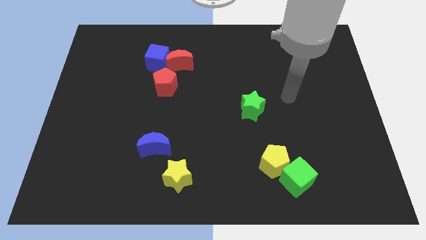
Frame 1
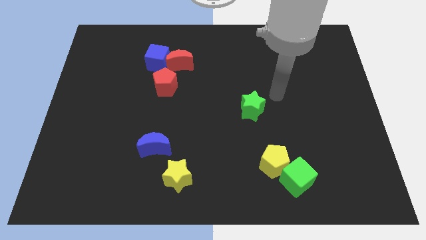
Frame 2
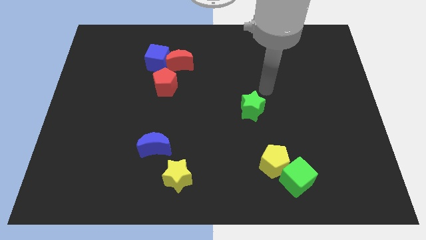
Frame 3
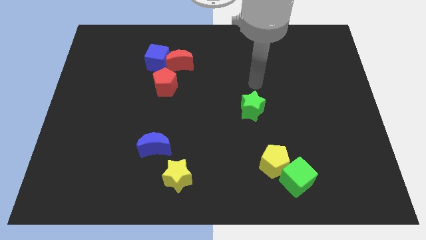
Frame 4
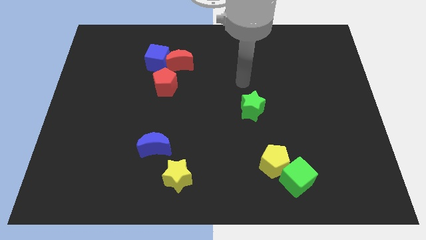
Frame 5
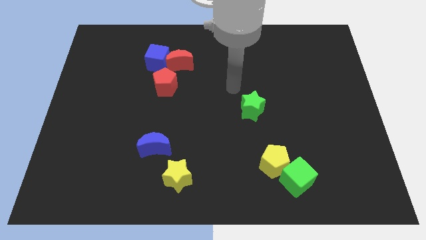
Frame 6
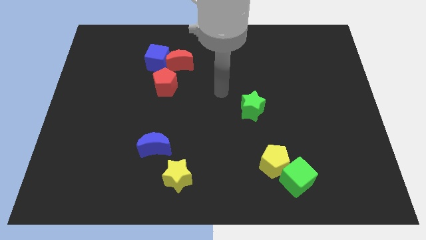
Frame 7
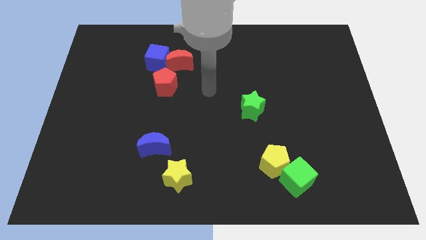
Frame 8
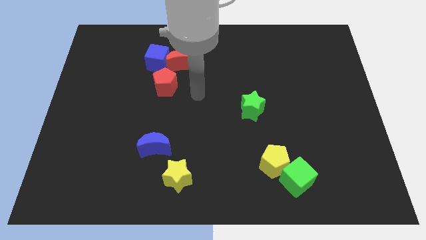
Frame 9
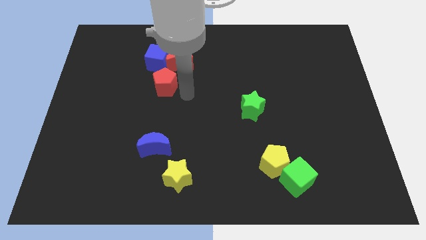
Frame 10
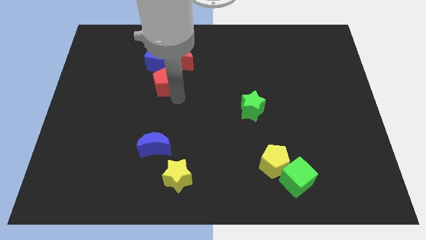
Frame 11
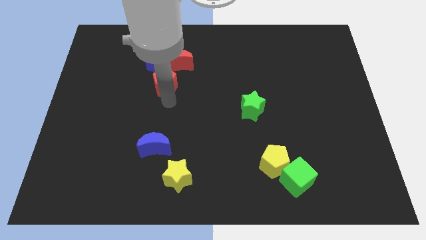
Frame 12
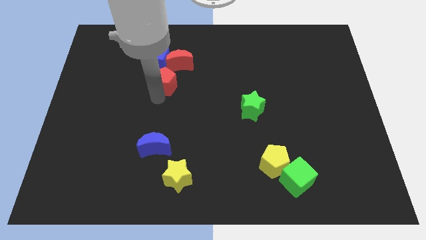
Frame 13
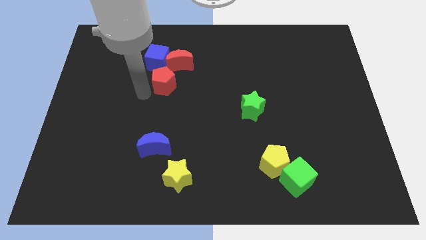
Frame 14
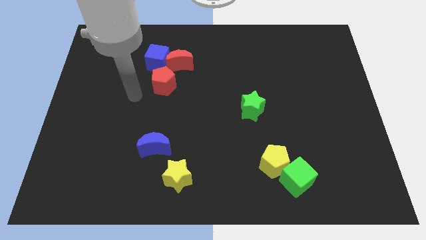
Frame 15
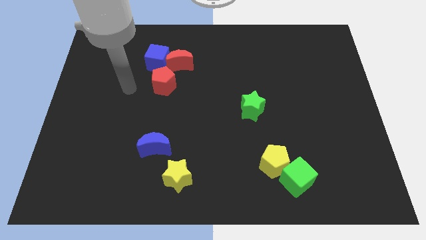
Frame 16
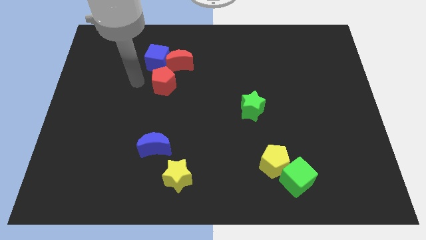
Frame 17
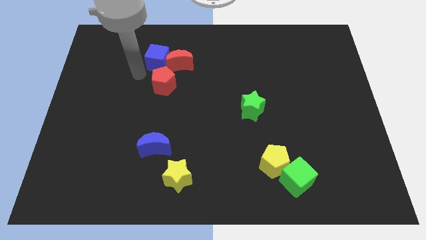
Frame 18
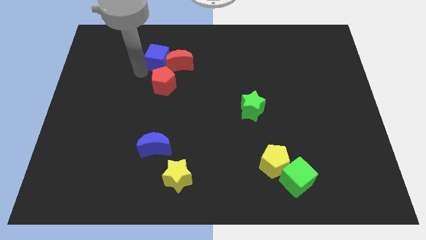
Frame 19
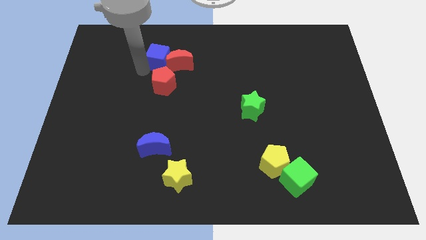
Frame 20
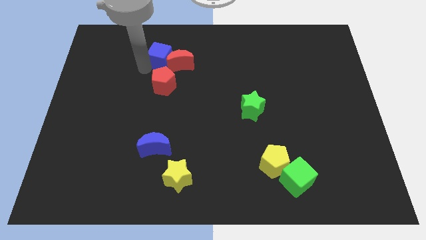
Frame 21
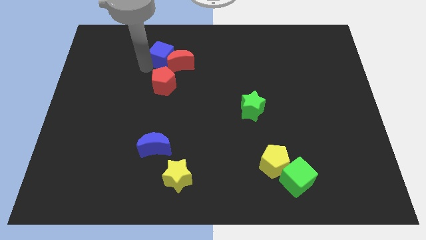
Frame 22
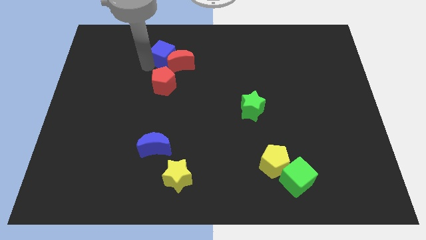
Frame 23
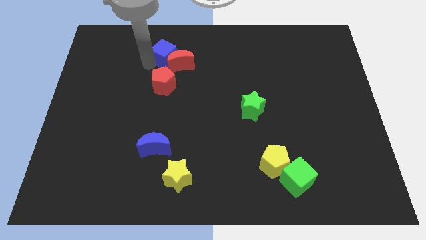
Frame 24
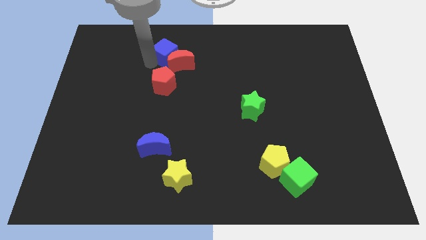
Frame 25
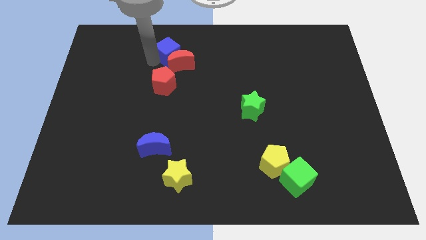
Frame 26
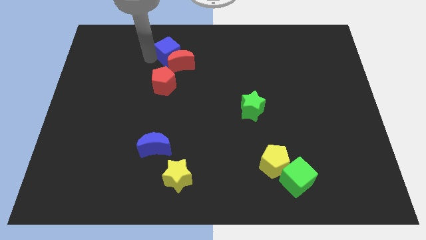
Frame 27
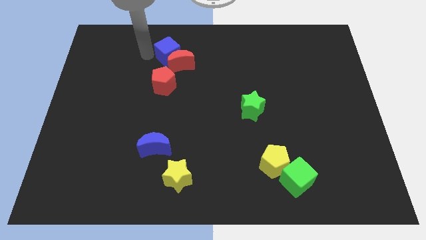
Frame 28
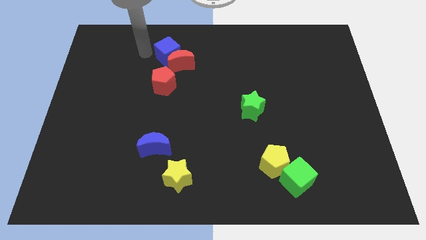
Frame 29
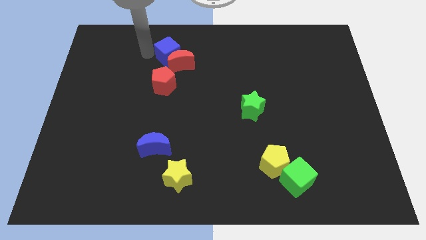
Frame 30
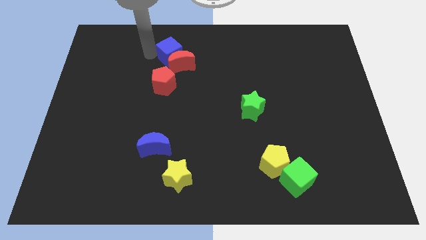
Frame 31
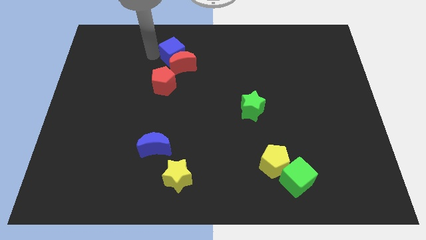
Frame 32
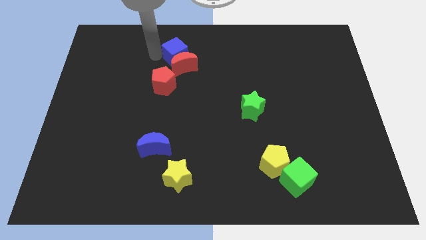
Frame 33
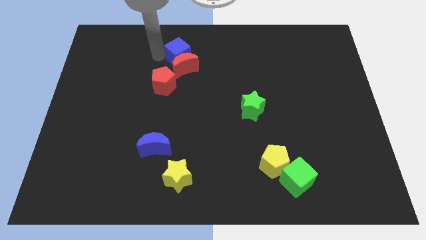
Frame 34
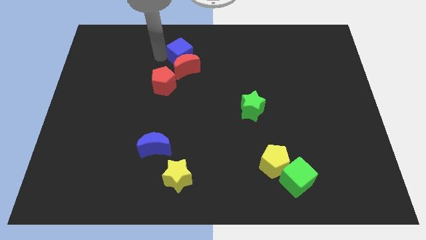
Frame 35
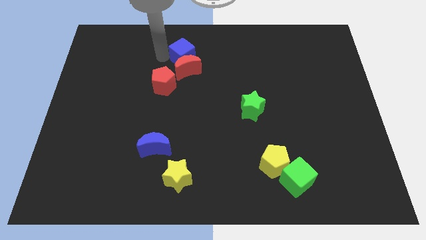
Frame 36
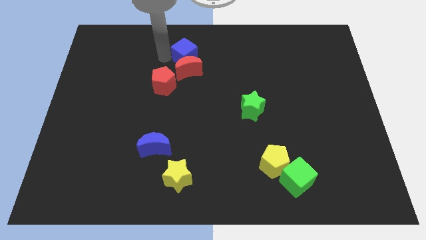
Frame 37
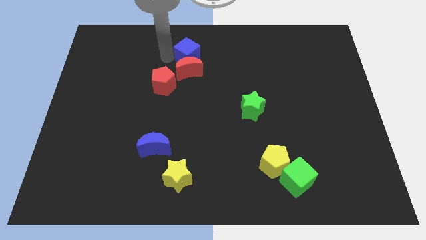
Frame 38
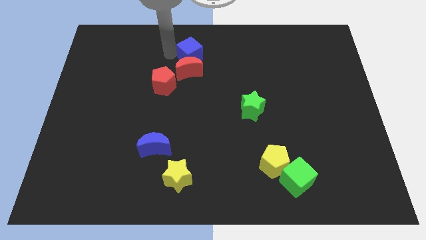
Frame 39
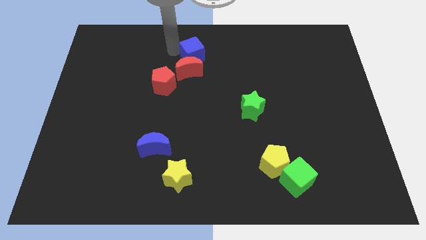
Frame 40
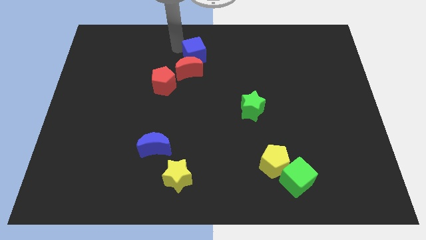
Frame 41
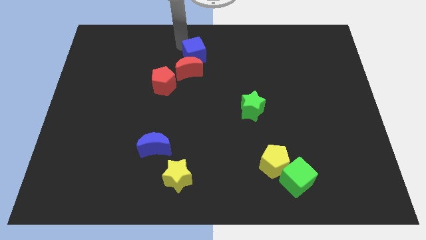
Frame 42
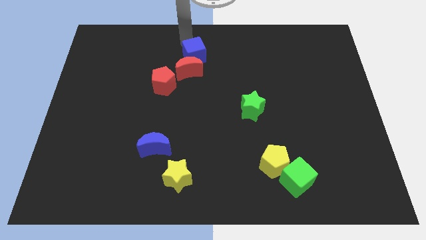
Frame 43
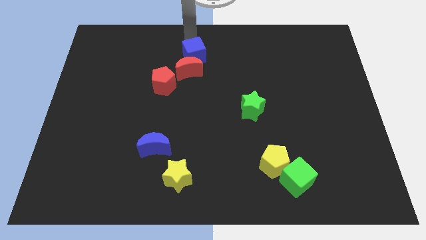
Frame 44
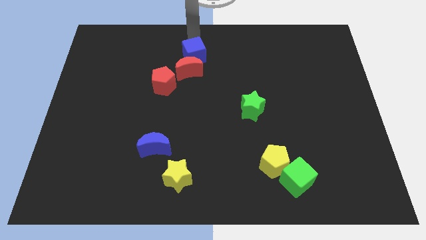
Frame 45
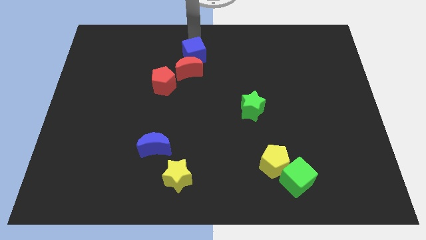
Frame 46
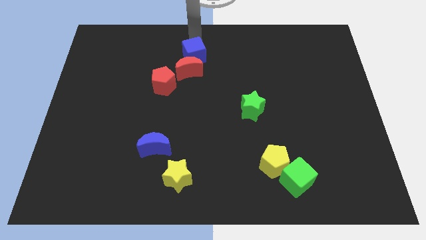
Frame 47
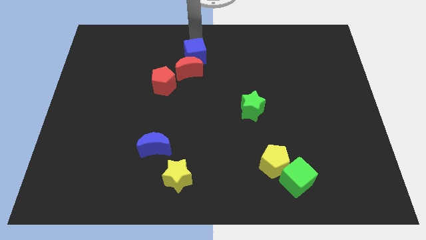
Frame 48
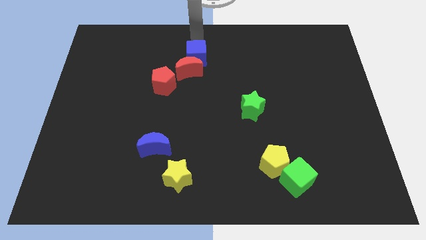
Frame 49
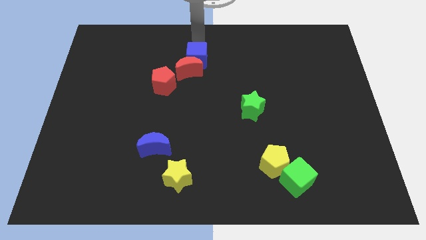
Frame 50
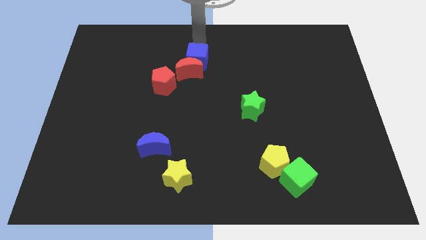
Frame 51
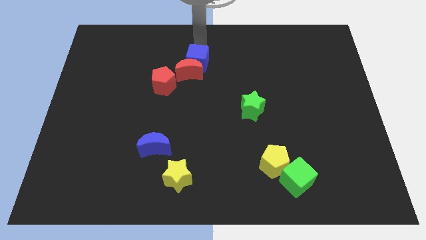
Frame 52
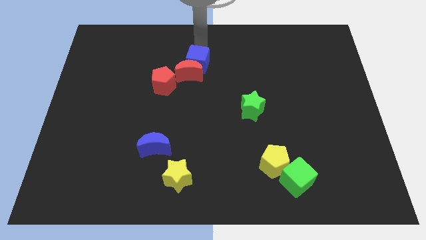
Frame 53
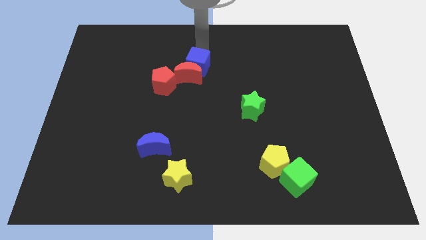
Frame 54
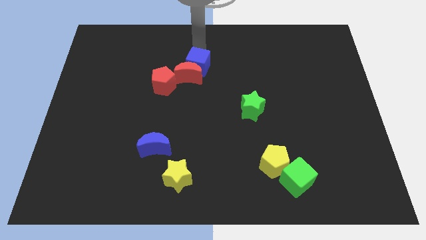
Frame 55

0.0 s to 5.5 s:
push the blue cube downwards and right a bit

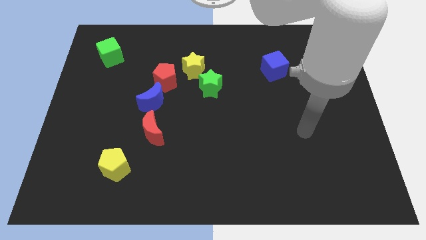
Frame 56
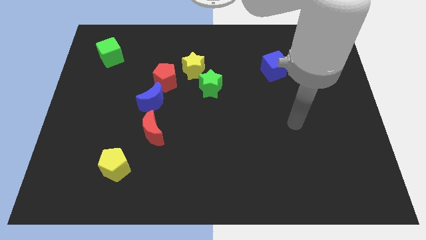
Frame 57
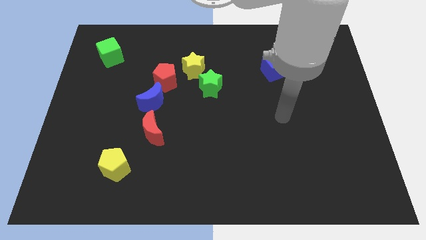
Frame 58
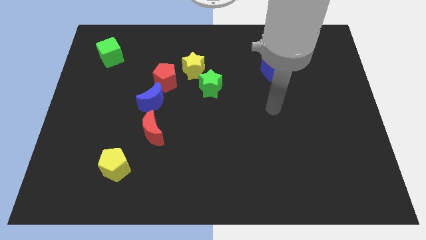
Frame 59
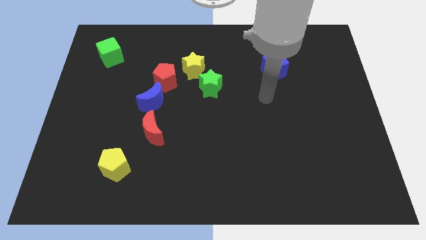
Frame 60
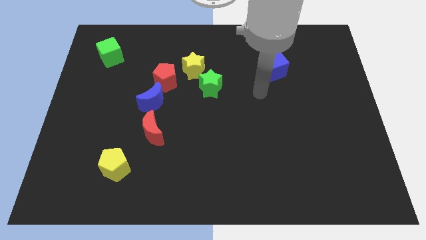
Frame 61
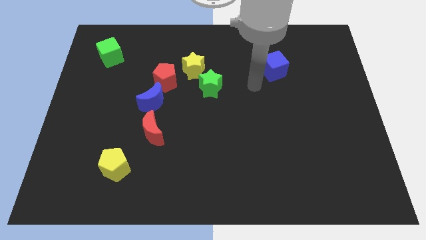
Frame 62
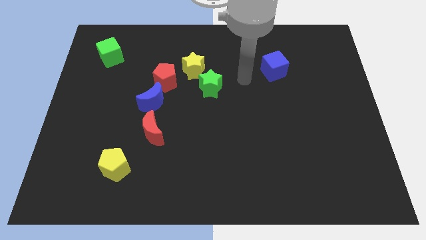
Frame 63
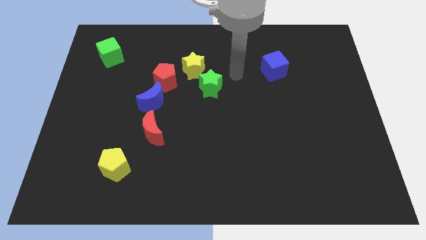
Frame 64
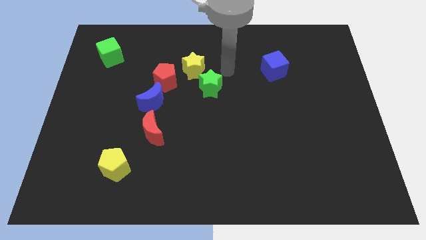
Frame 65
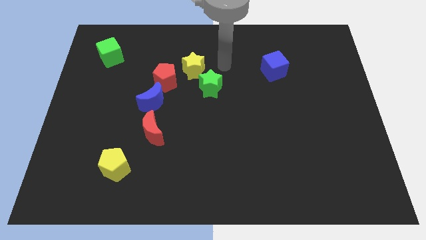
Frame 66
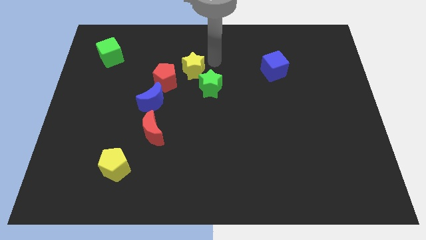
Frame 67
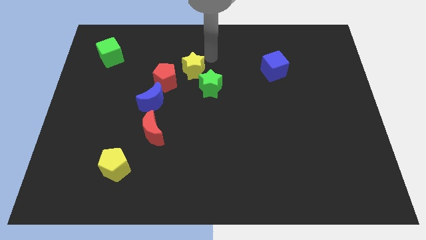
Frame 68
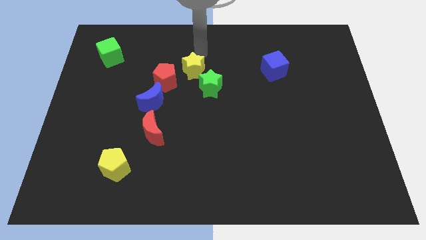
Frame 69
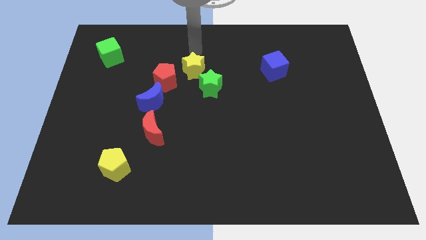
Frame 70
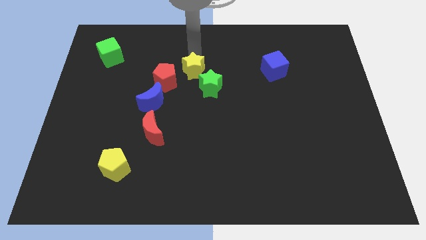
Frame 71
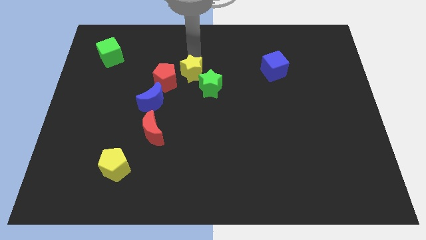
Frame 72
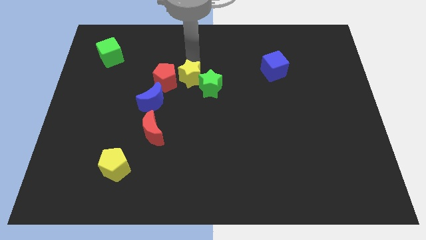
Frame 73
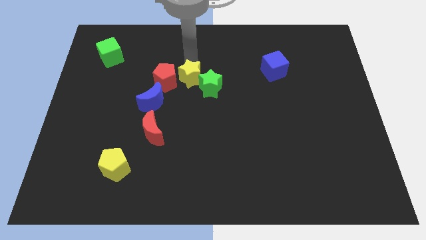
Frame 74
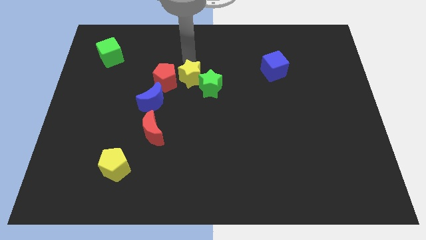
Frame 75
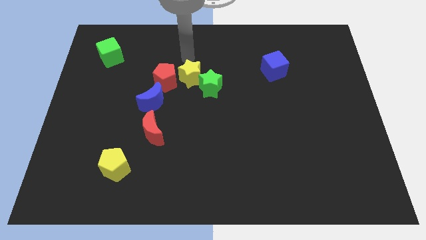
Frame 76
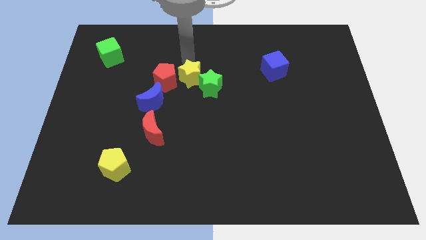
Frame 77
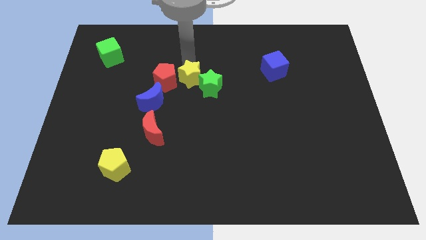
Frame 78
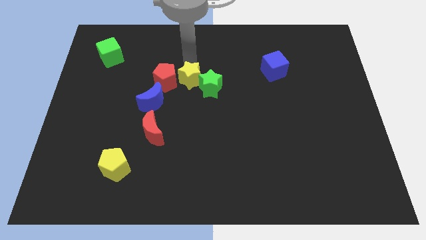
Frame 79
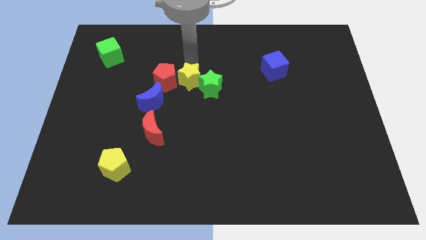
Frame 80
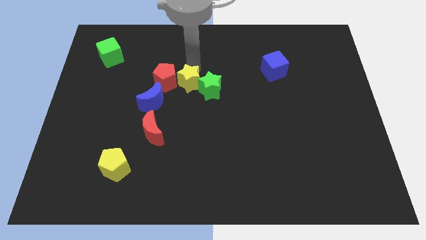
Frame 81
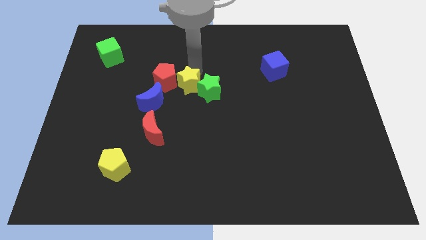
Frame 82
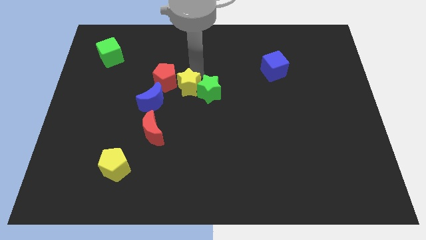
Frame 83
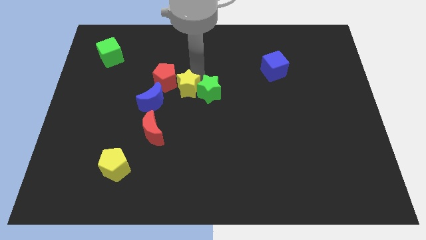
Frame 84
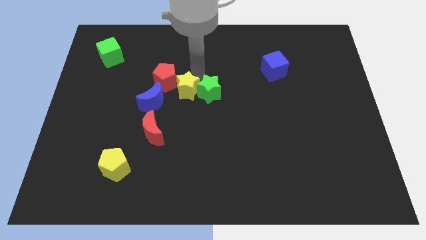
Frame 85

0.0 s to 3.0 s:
slide the yellow star a little bit down
